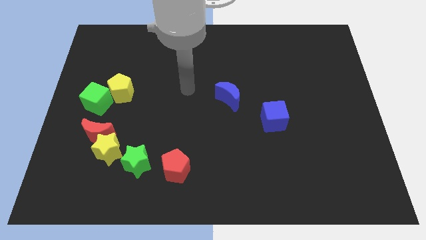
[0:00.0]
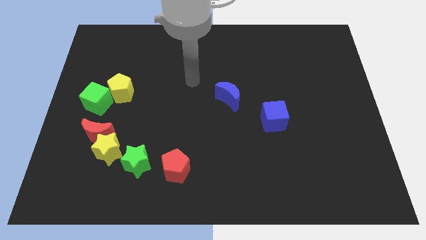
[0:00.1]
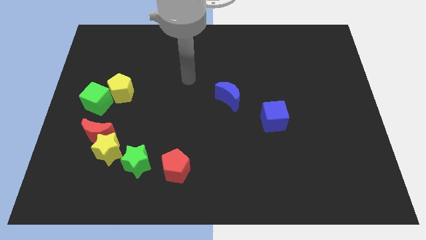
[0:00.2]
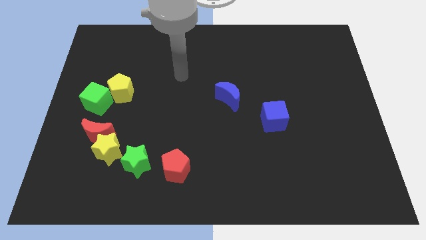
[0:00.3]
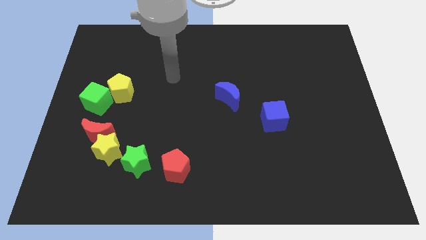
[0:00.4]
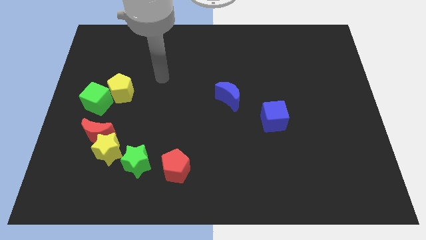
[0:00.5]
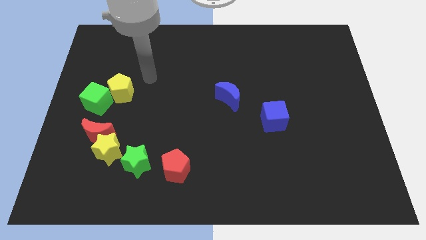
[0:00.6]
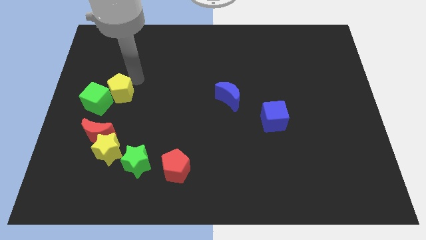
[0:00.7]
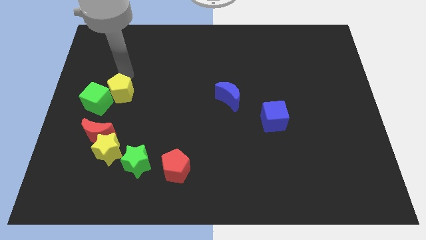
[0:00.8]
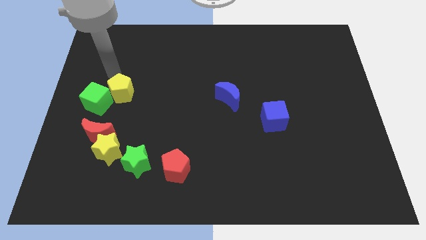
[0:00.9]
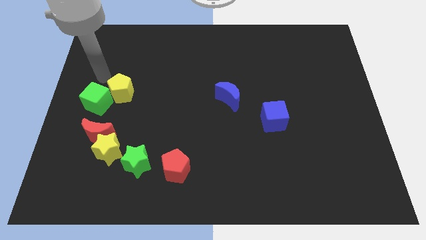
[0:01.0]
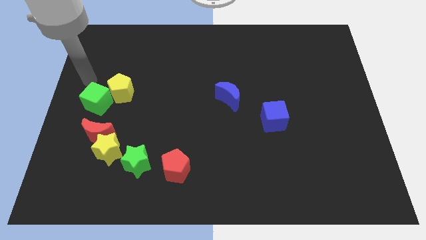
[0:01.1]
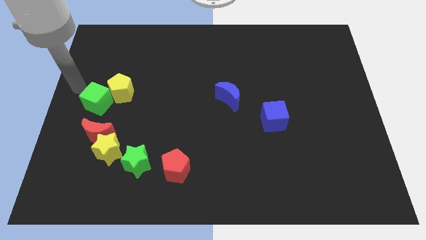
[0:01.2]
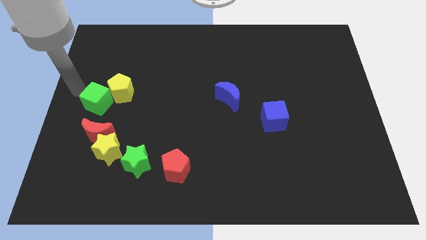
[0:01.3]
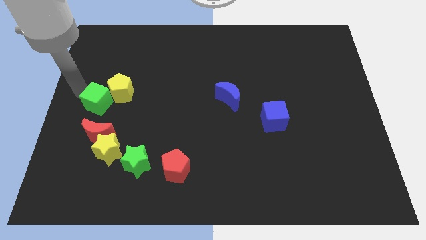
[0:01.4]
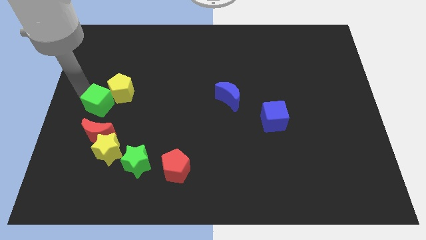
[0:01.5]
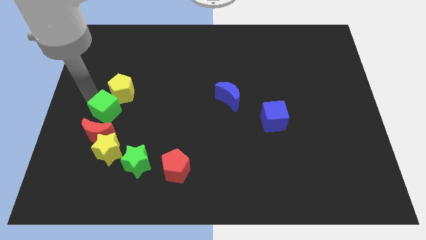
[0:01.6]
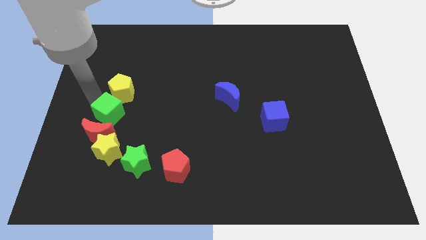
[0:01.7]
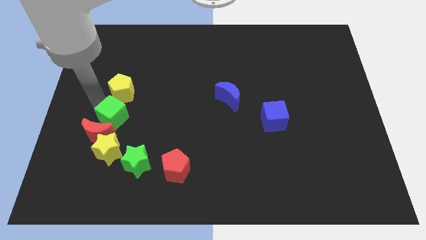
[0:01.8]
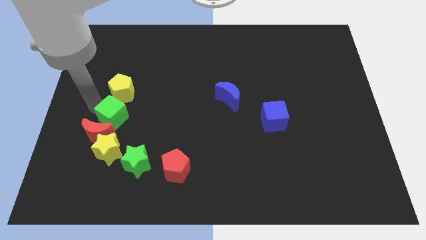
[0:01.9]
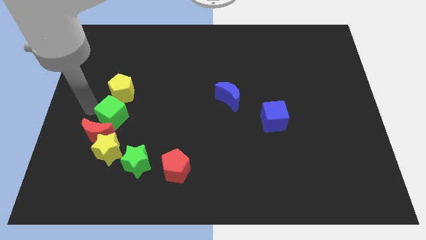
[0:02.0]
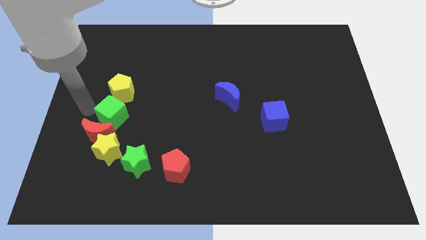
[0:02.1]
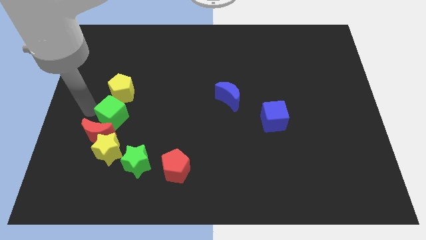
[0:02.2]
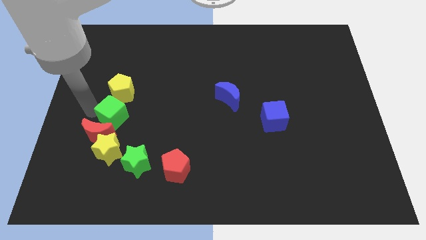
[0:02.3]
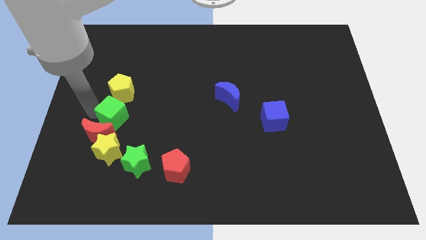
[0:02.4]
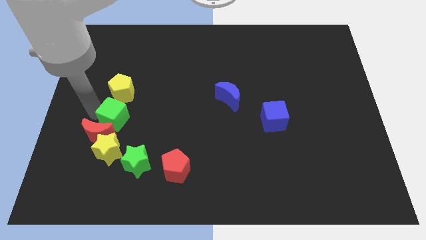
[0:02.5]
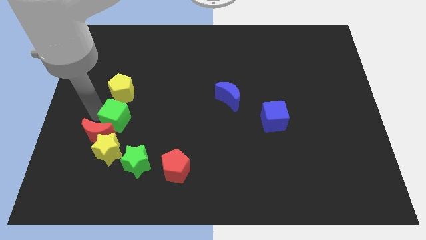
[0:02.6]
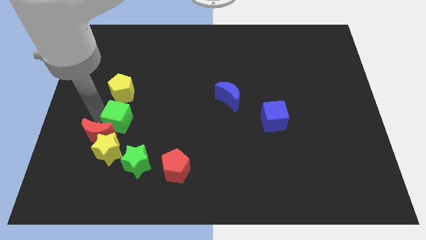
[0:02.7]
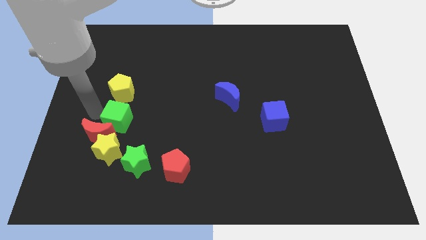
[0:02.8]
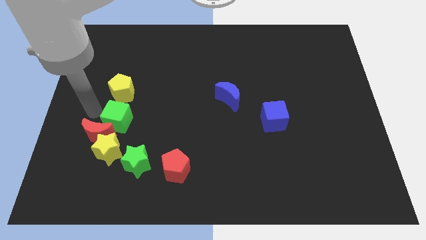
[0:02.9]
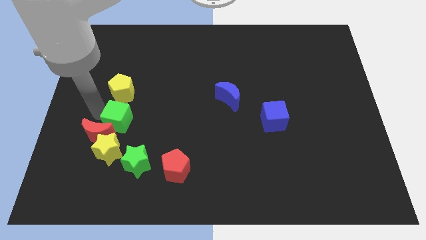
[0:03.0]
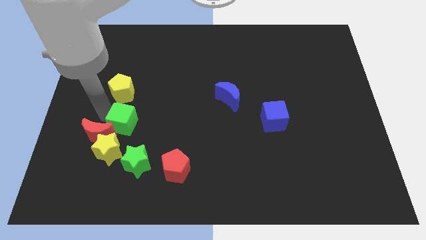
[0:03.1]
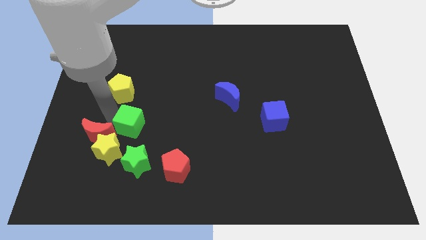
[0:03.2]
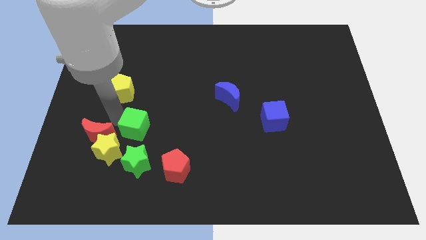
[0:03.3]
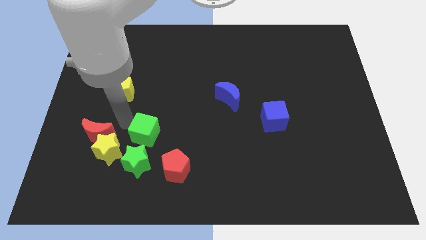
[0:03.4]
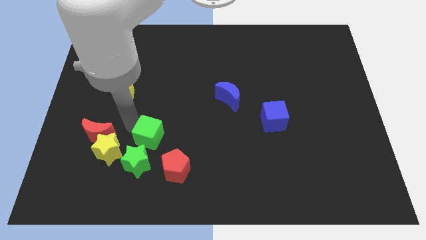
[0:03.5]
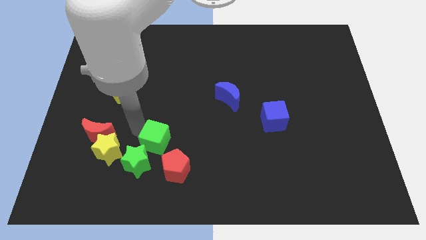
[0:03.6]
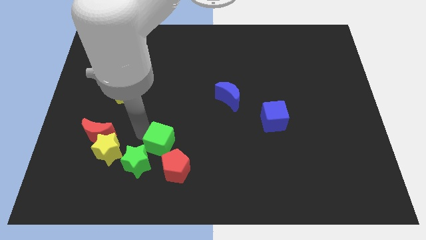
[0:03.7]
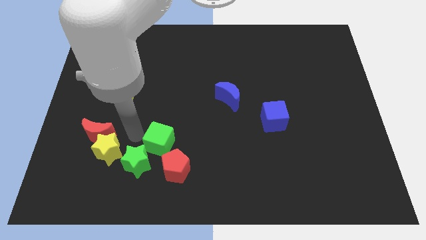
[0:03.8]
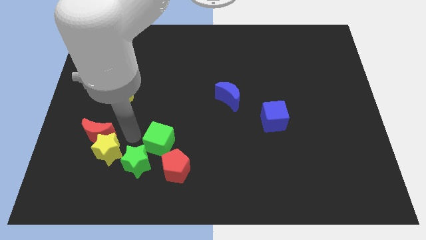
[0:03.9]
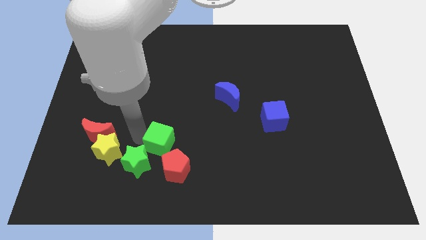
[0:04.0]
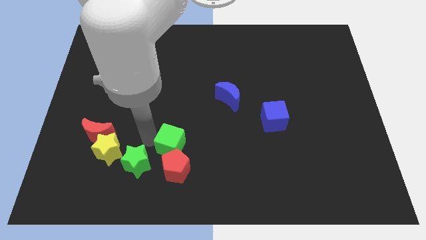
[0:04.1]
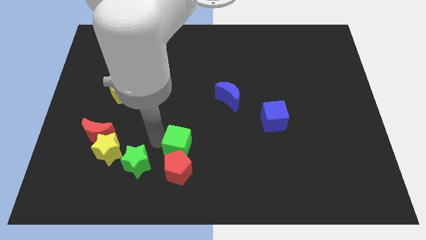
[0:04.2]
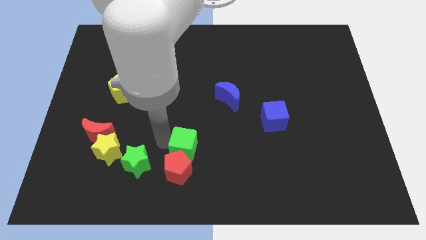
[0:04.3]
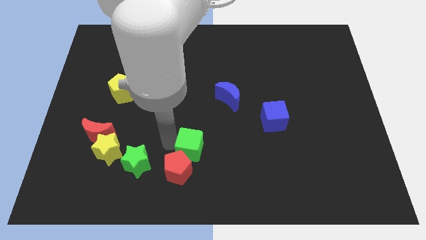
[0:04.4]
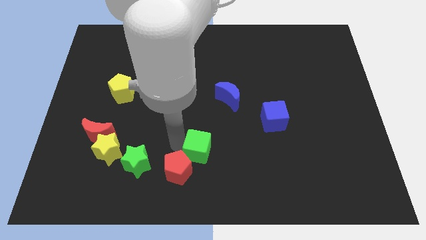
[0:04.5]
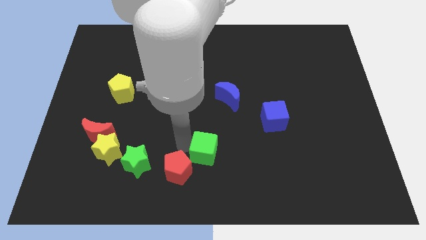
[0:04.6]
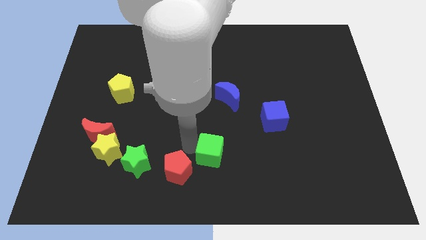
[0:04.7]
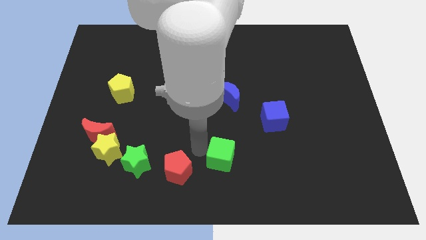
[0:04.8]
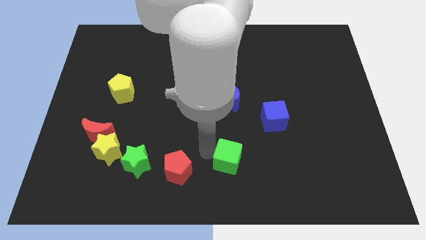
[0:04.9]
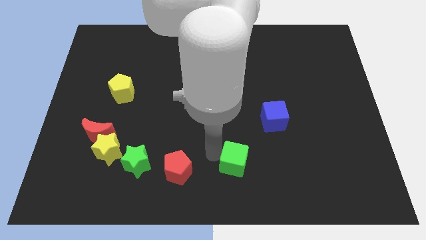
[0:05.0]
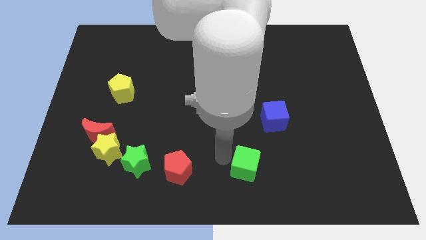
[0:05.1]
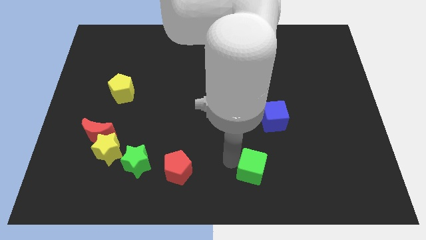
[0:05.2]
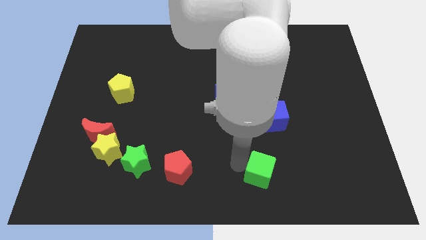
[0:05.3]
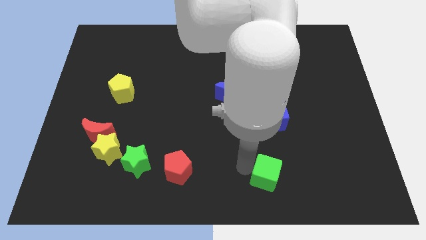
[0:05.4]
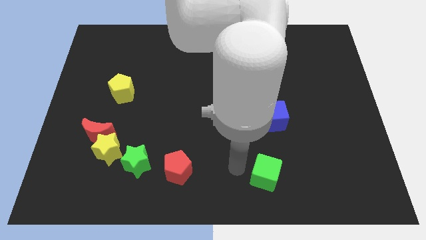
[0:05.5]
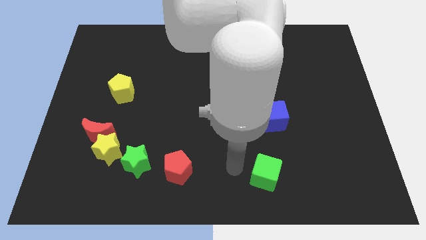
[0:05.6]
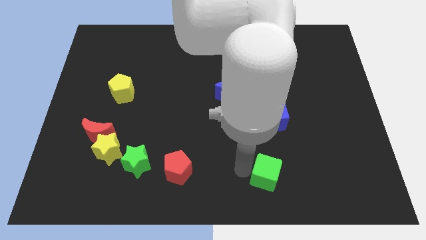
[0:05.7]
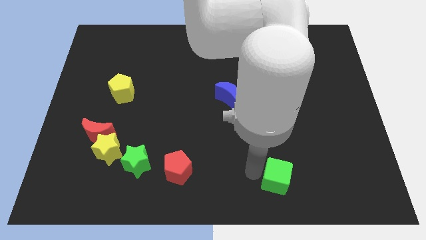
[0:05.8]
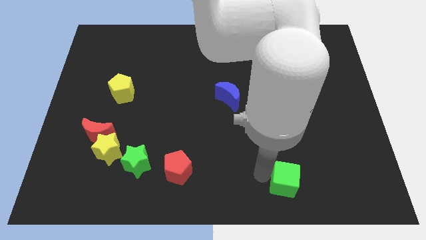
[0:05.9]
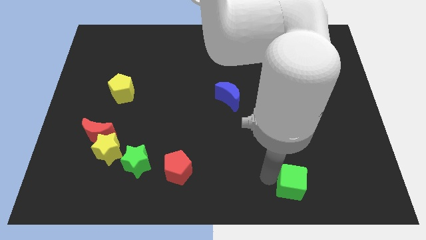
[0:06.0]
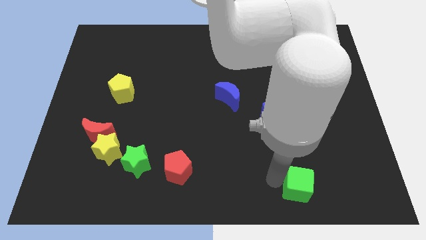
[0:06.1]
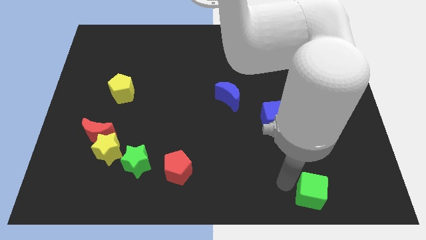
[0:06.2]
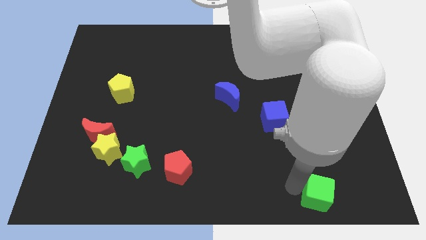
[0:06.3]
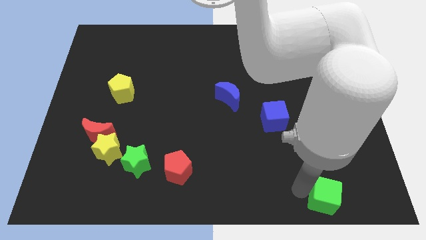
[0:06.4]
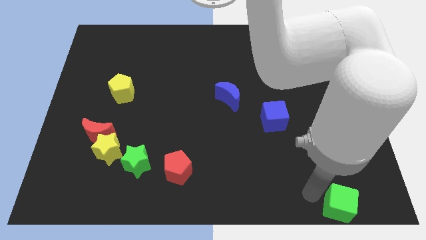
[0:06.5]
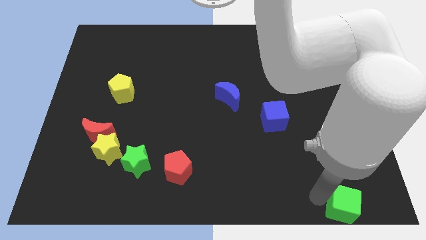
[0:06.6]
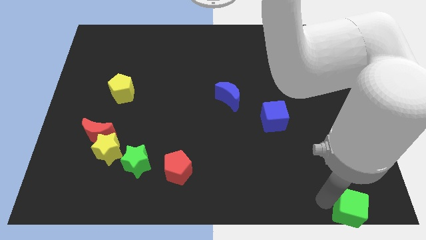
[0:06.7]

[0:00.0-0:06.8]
slide the green cube to the bottom right
